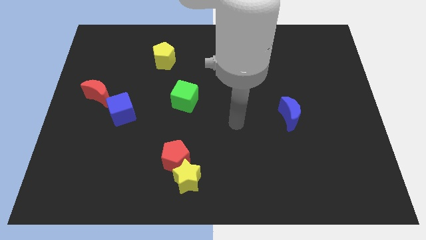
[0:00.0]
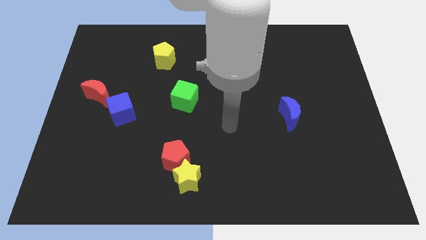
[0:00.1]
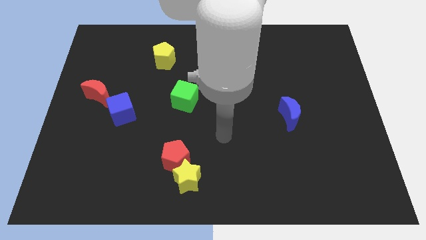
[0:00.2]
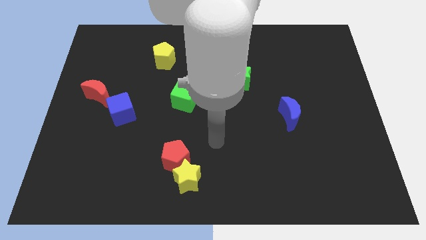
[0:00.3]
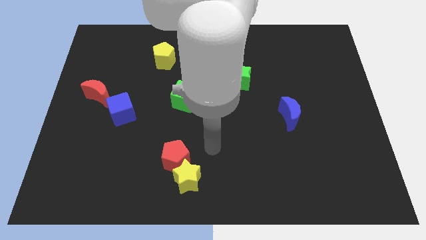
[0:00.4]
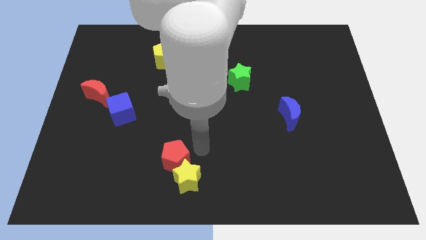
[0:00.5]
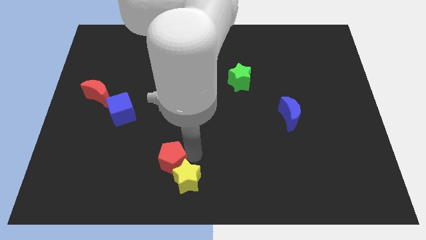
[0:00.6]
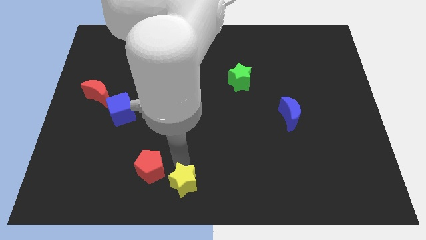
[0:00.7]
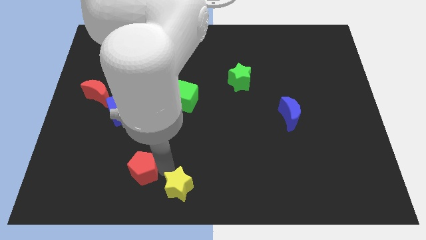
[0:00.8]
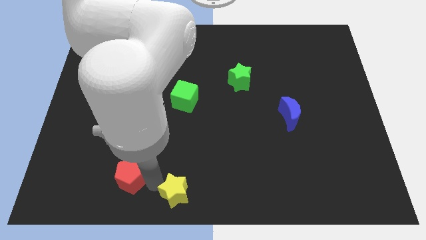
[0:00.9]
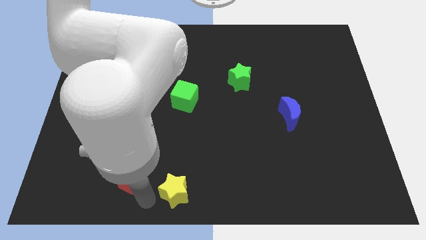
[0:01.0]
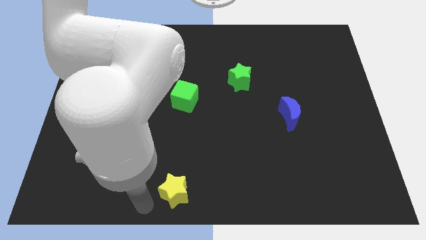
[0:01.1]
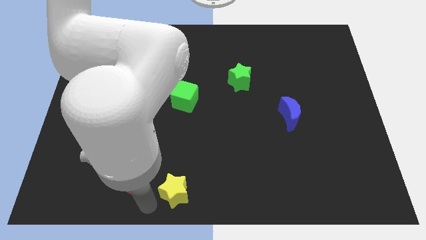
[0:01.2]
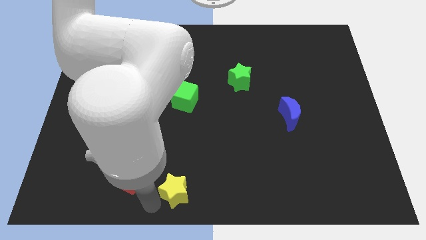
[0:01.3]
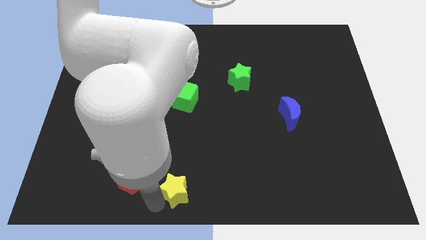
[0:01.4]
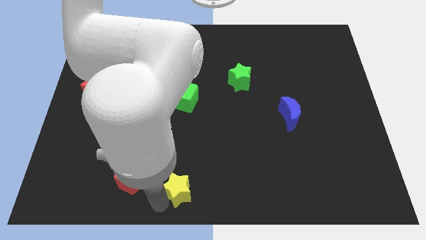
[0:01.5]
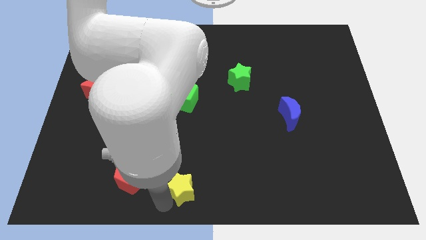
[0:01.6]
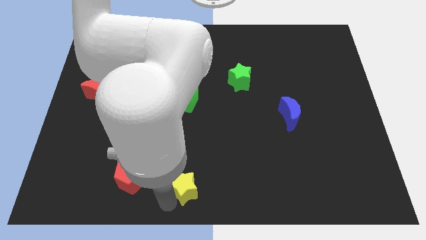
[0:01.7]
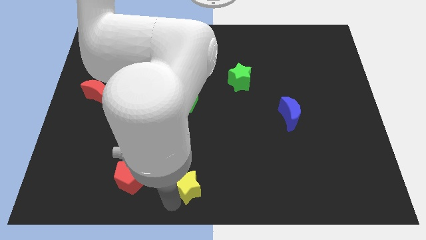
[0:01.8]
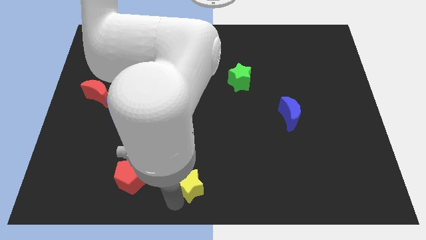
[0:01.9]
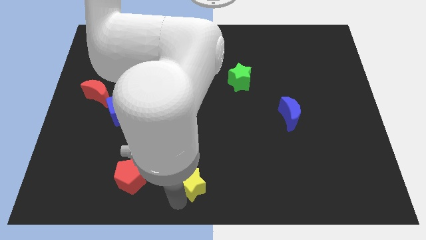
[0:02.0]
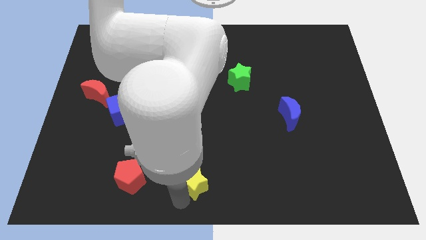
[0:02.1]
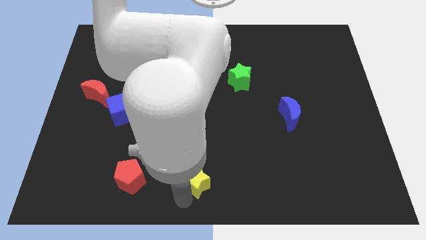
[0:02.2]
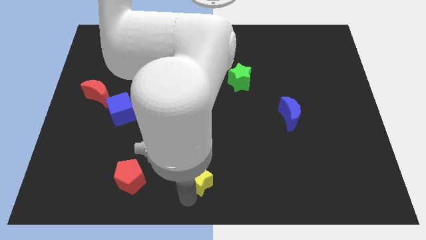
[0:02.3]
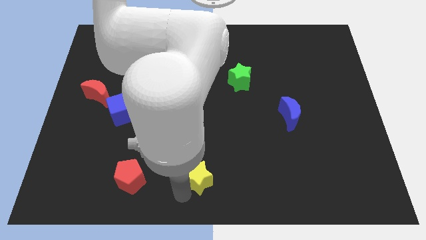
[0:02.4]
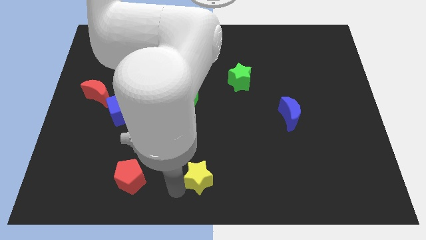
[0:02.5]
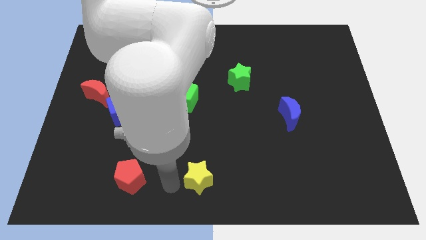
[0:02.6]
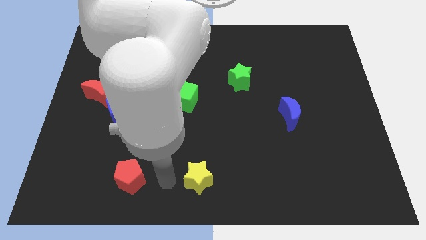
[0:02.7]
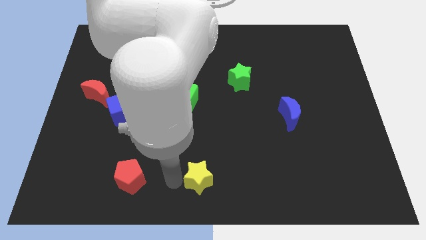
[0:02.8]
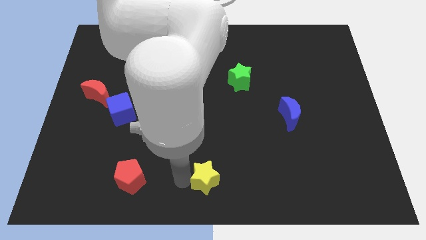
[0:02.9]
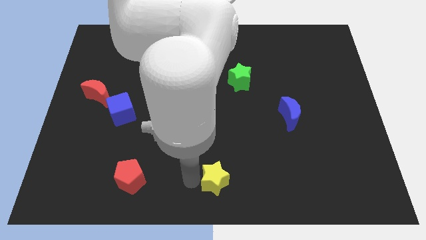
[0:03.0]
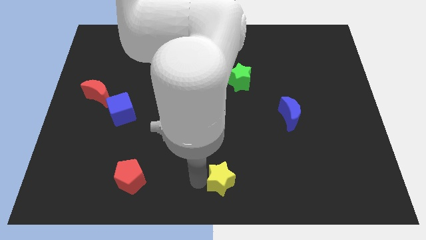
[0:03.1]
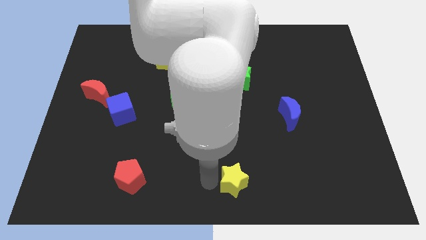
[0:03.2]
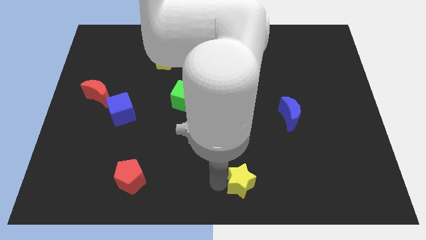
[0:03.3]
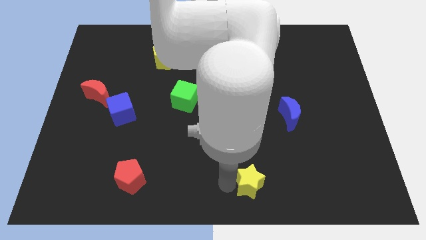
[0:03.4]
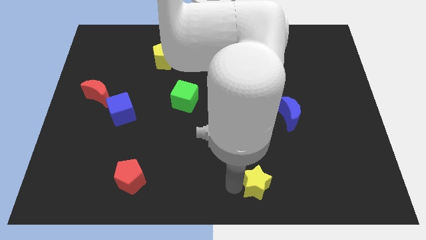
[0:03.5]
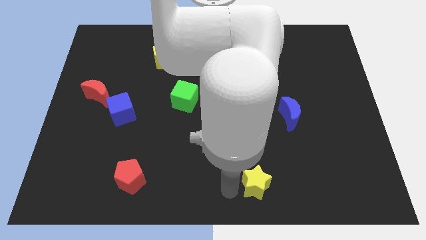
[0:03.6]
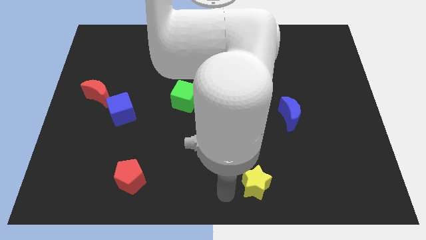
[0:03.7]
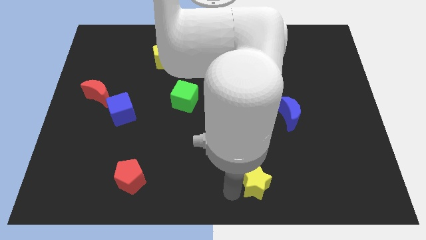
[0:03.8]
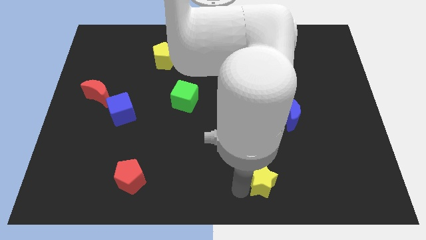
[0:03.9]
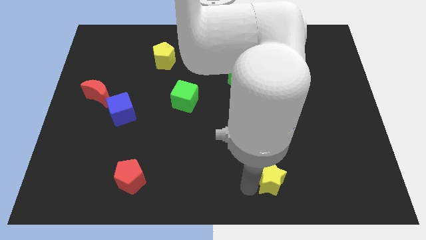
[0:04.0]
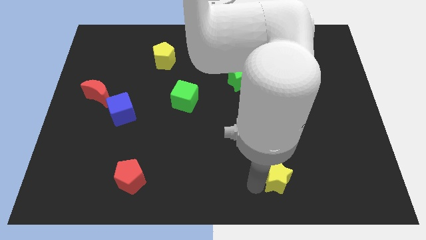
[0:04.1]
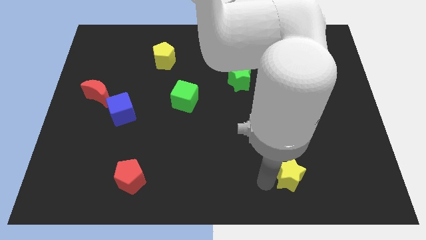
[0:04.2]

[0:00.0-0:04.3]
push the yellow star right

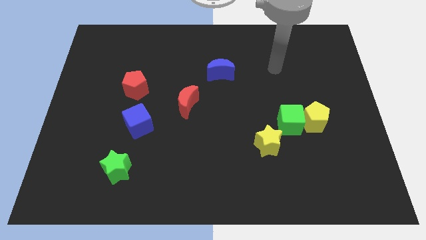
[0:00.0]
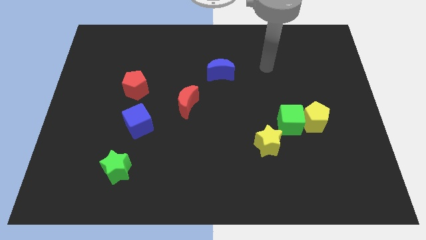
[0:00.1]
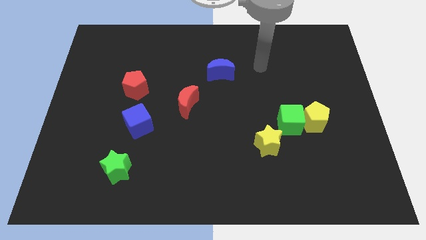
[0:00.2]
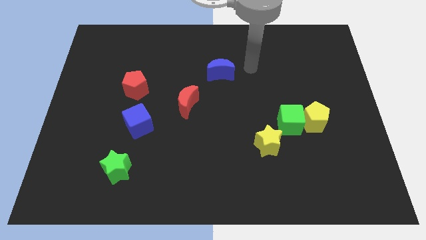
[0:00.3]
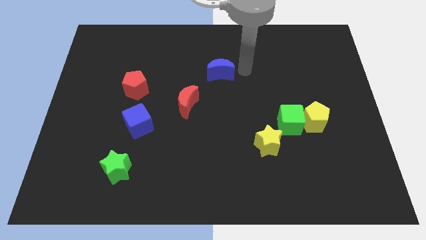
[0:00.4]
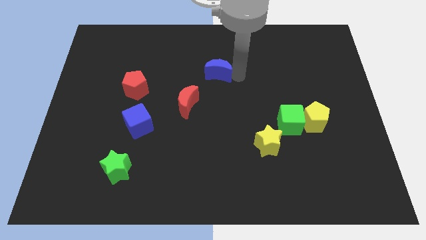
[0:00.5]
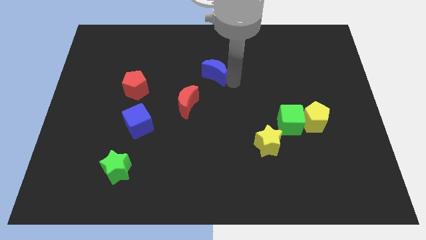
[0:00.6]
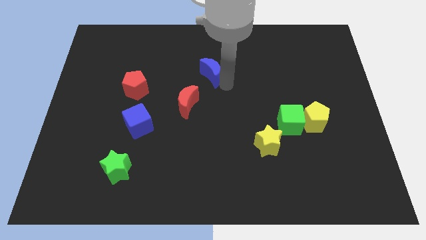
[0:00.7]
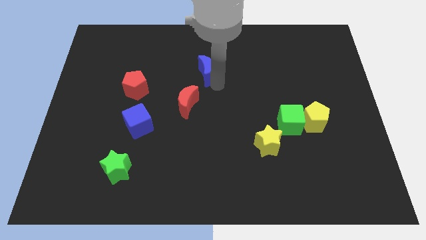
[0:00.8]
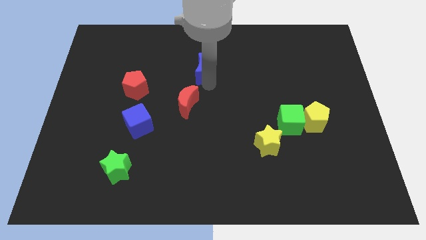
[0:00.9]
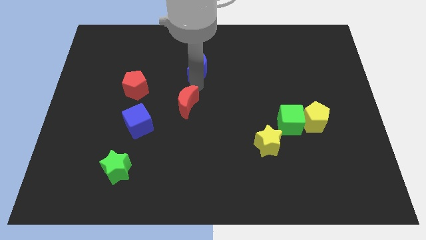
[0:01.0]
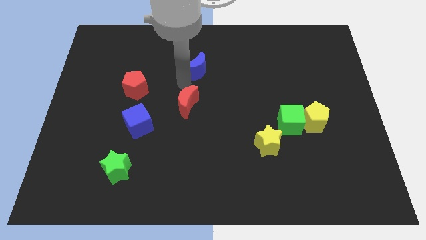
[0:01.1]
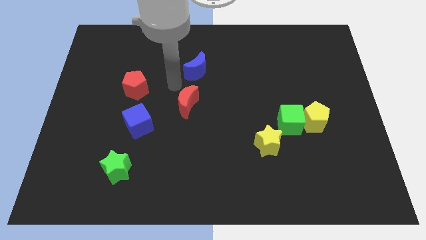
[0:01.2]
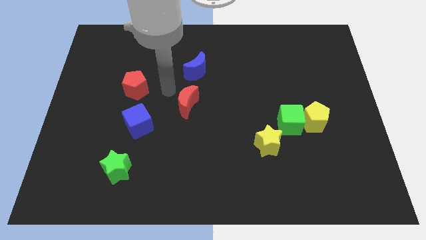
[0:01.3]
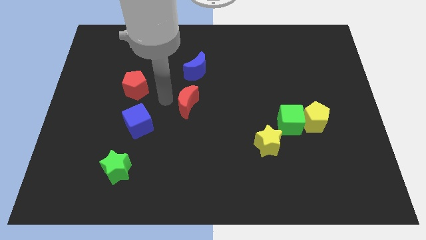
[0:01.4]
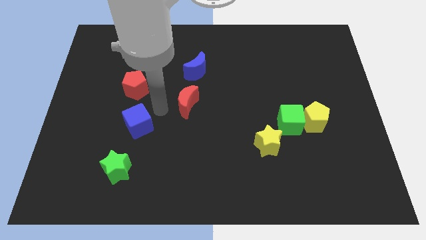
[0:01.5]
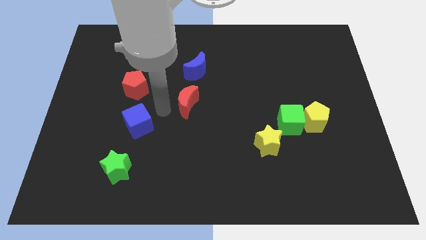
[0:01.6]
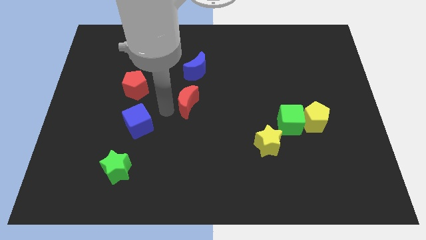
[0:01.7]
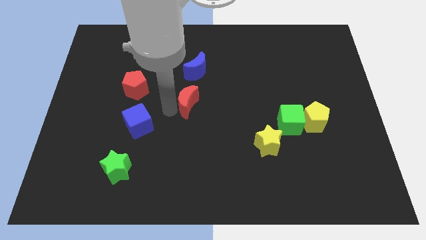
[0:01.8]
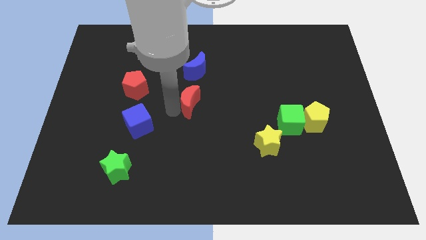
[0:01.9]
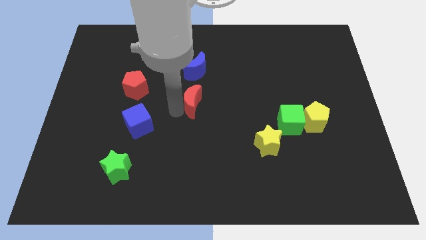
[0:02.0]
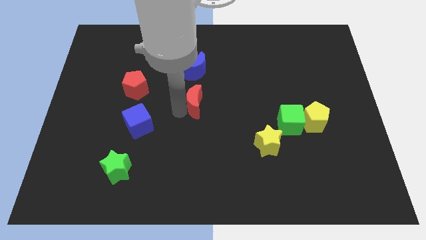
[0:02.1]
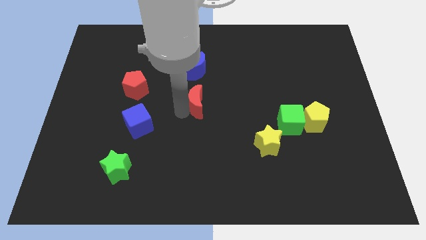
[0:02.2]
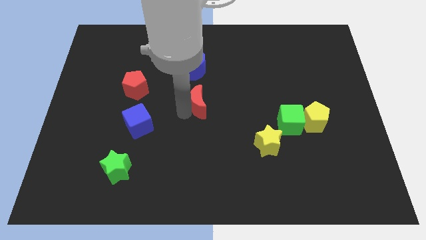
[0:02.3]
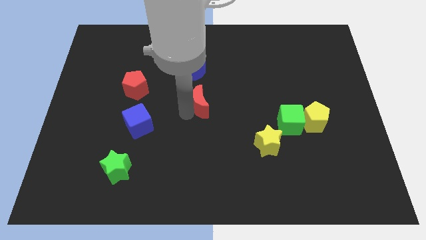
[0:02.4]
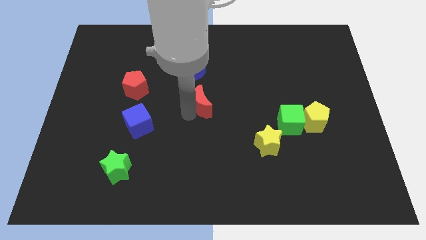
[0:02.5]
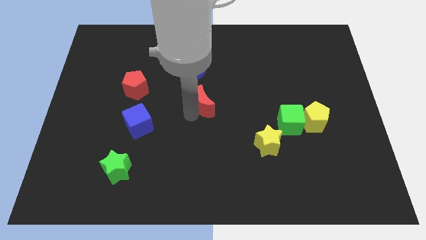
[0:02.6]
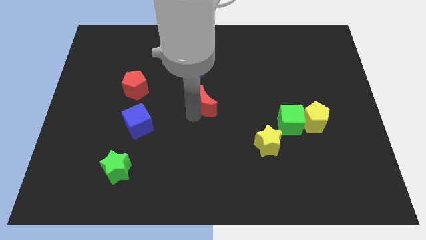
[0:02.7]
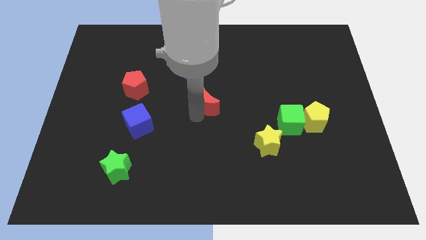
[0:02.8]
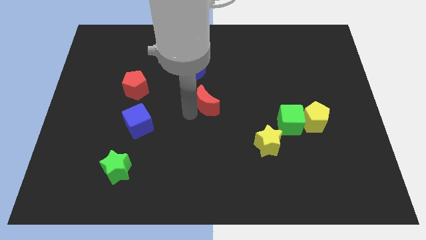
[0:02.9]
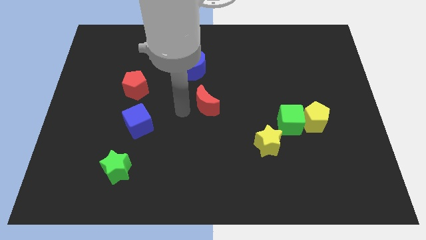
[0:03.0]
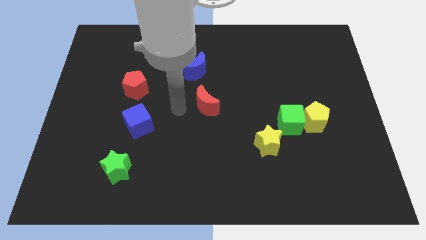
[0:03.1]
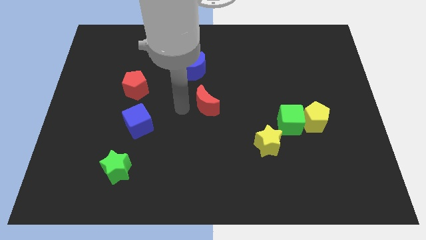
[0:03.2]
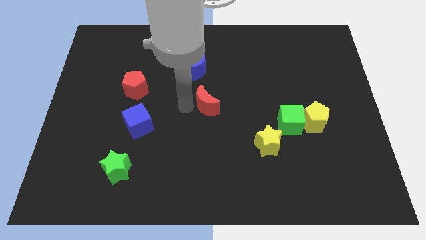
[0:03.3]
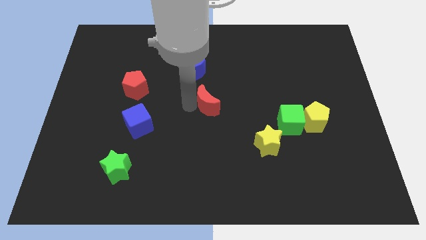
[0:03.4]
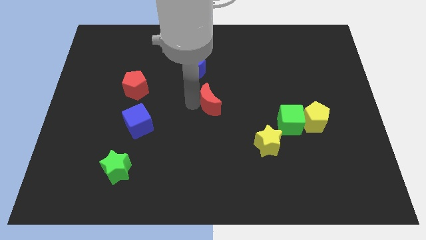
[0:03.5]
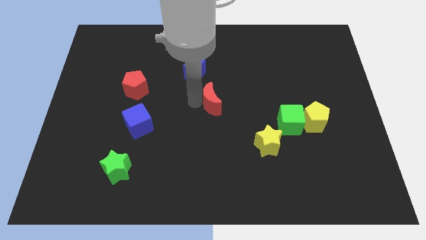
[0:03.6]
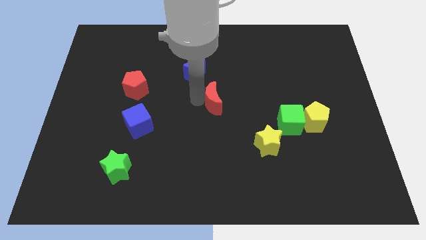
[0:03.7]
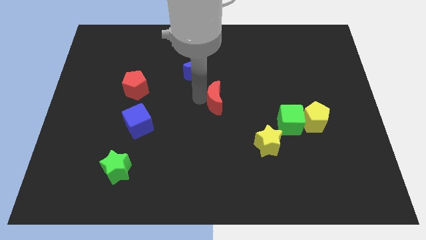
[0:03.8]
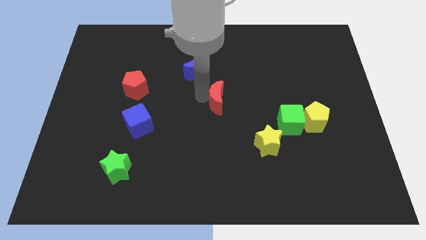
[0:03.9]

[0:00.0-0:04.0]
slightly move the red moon right
